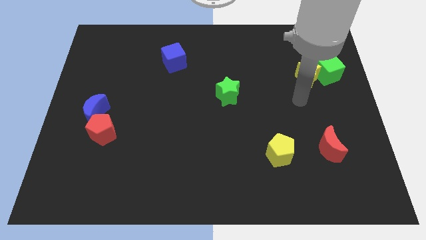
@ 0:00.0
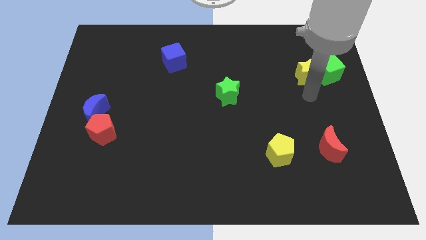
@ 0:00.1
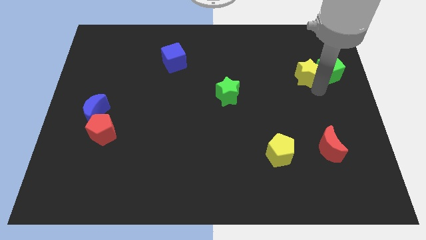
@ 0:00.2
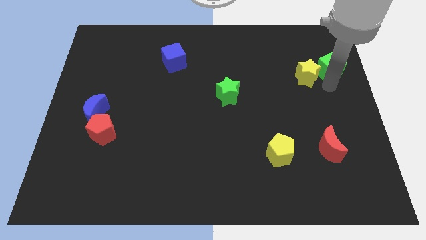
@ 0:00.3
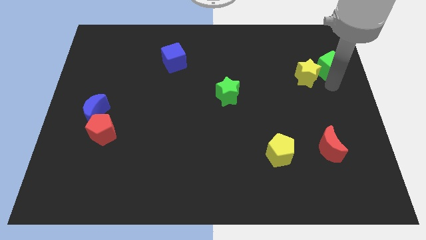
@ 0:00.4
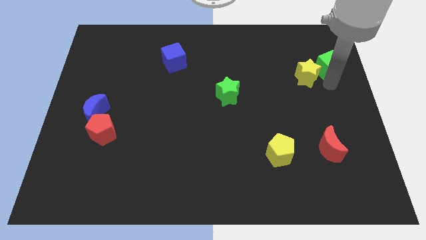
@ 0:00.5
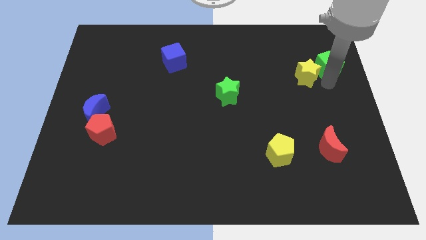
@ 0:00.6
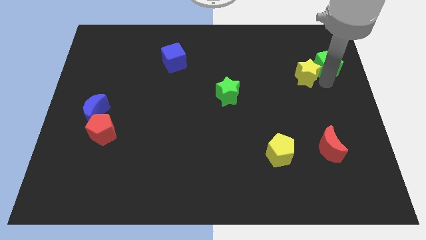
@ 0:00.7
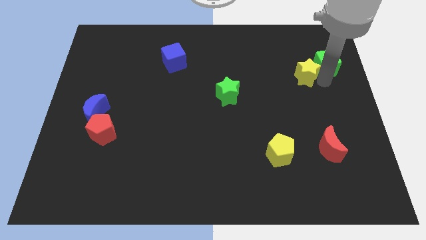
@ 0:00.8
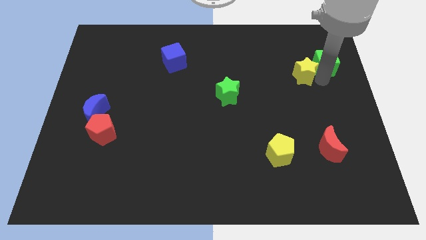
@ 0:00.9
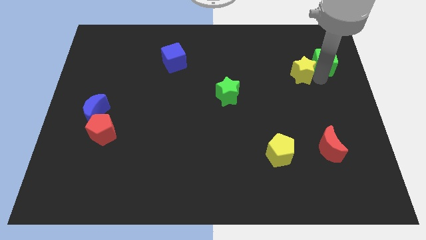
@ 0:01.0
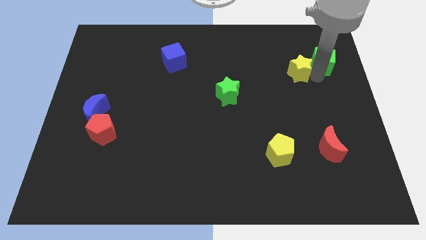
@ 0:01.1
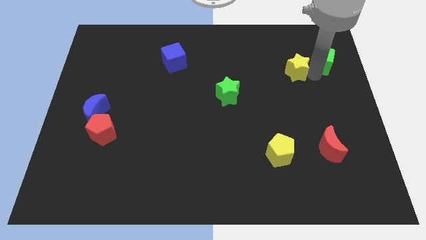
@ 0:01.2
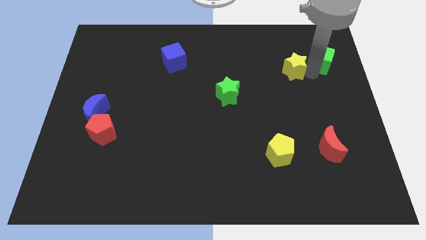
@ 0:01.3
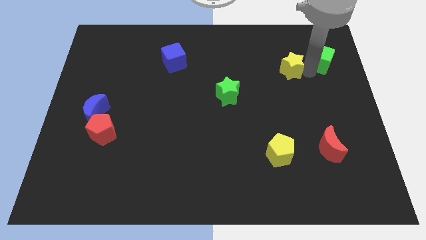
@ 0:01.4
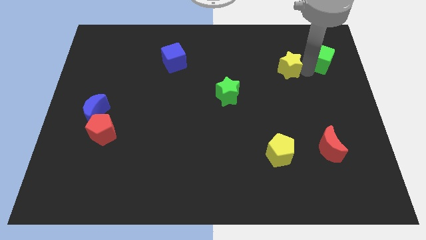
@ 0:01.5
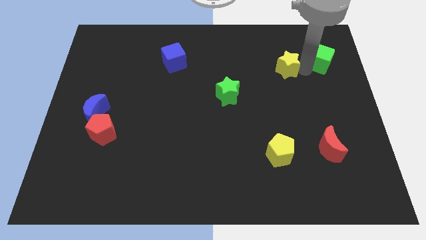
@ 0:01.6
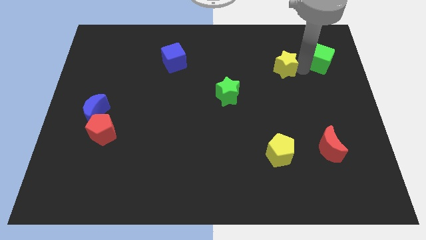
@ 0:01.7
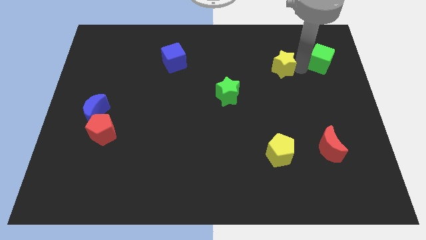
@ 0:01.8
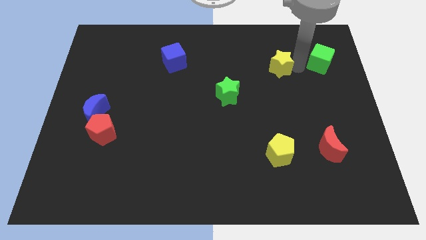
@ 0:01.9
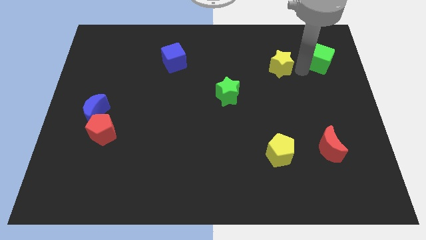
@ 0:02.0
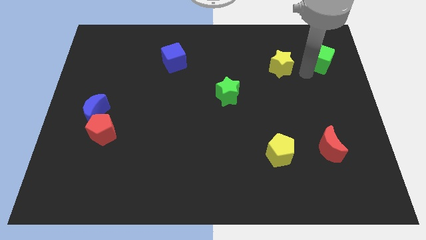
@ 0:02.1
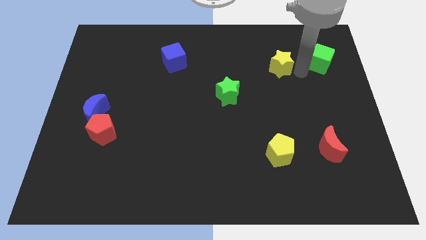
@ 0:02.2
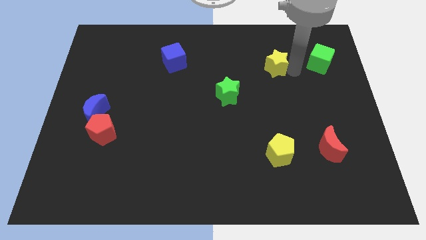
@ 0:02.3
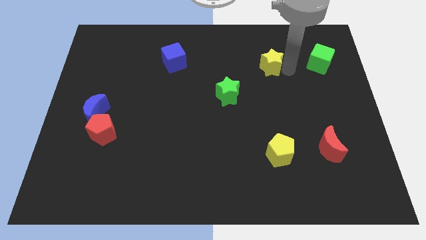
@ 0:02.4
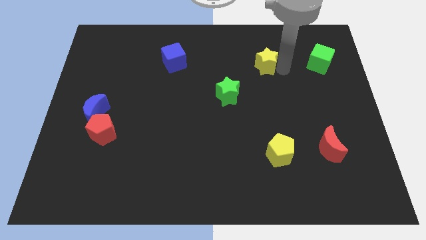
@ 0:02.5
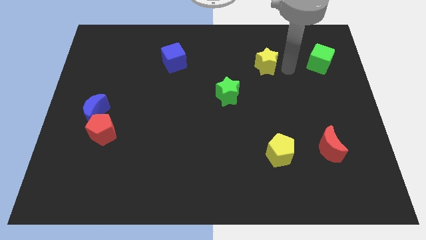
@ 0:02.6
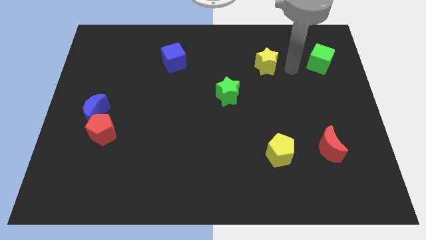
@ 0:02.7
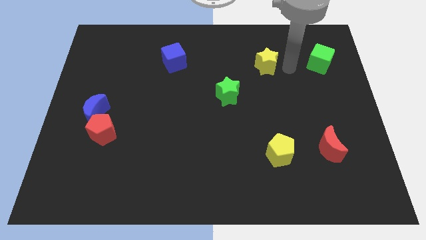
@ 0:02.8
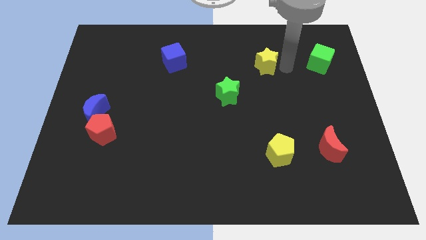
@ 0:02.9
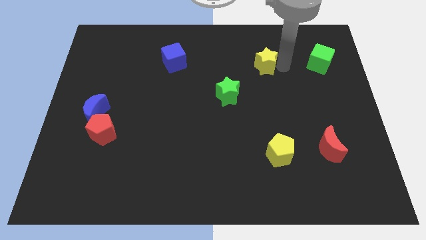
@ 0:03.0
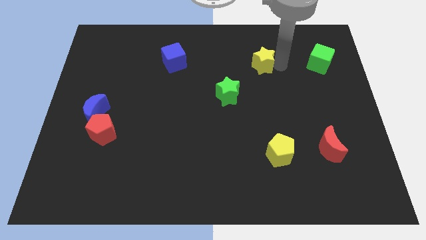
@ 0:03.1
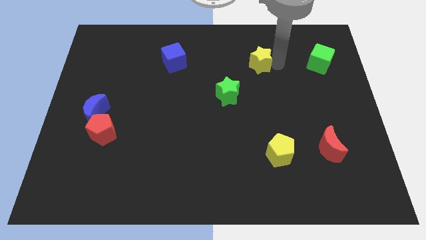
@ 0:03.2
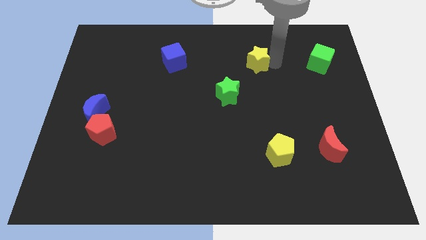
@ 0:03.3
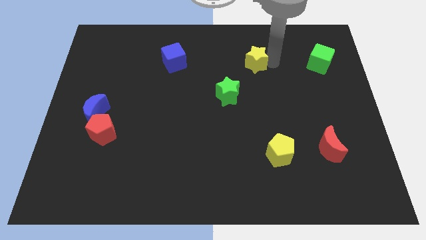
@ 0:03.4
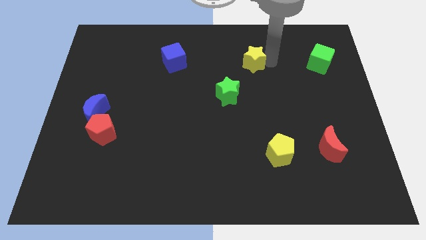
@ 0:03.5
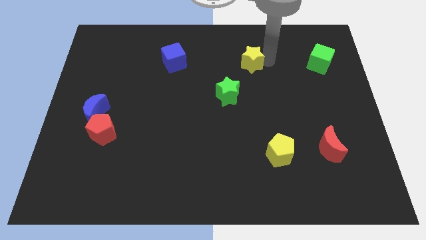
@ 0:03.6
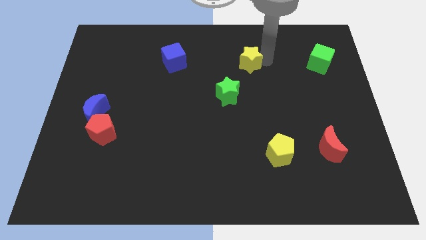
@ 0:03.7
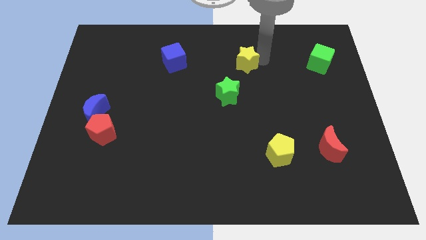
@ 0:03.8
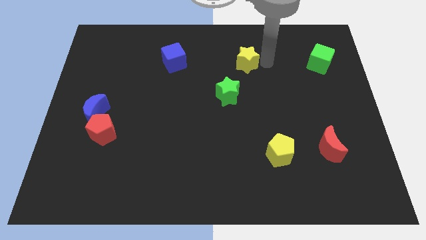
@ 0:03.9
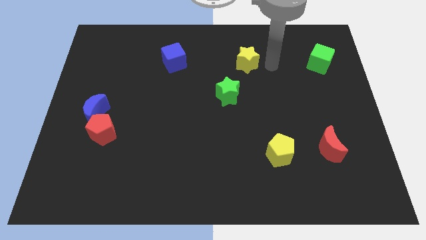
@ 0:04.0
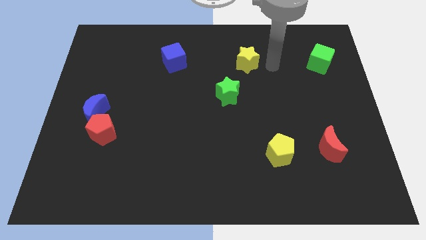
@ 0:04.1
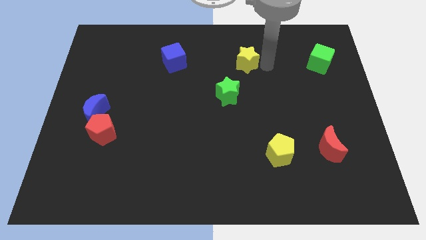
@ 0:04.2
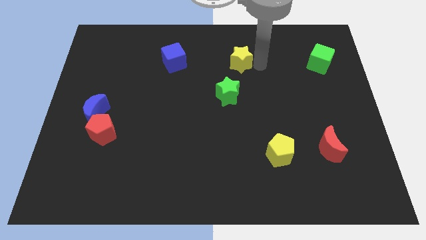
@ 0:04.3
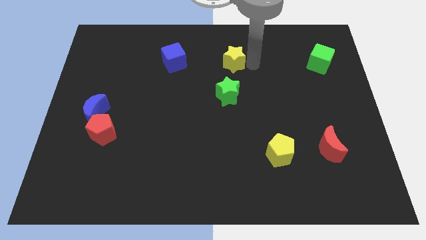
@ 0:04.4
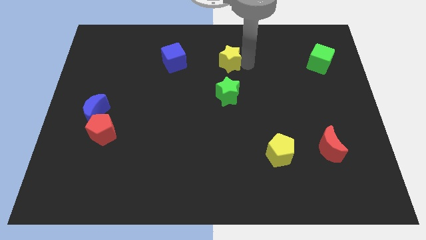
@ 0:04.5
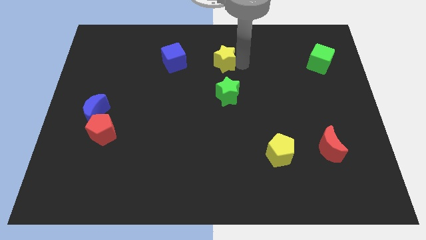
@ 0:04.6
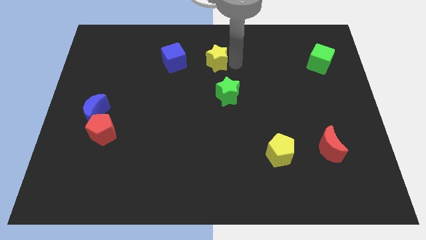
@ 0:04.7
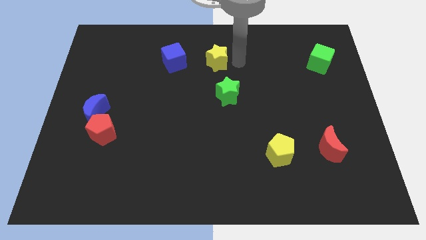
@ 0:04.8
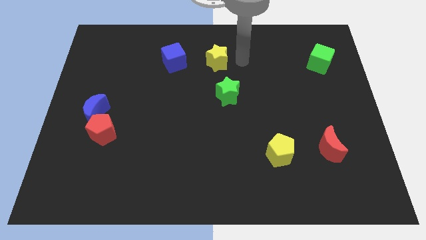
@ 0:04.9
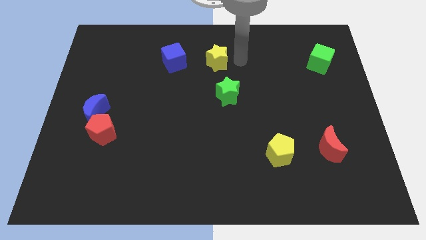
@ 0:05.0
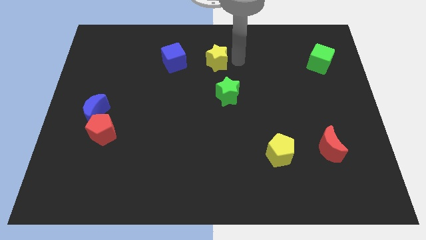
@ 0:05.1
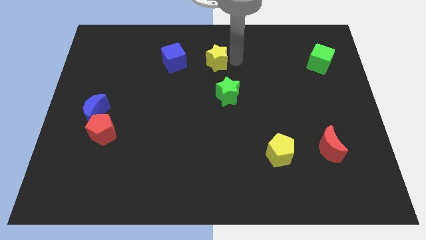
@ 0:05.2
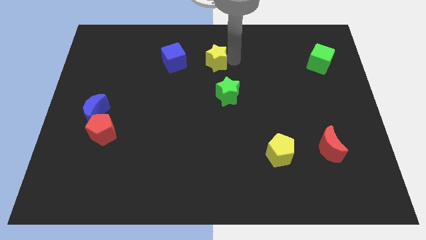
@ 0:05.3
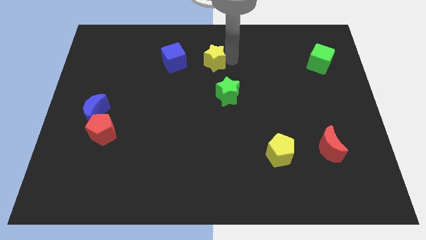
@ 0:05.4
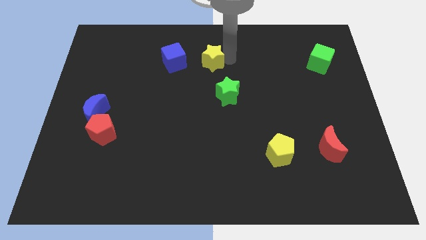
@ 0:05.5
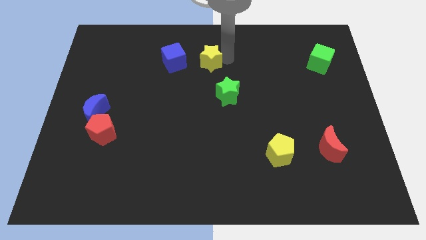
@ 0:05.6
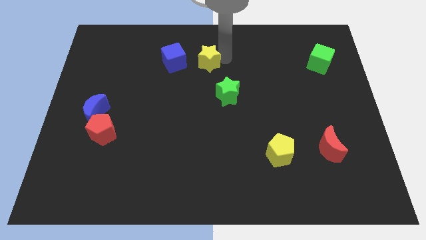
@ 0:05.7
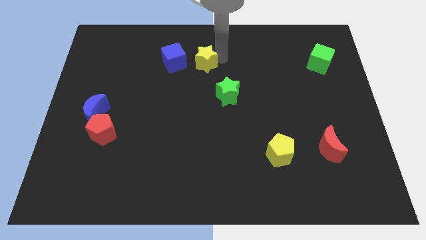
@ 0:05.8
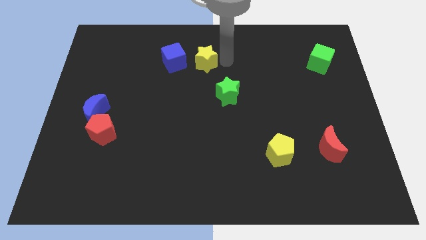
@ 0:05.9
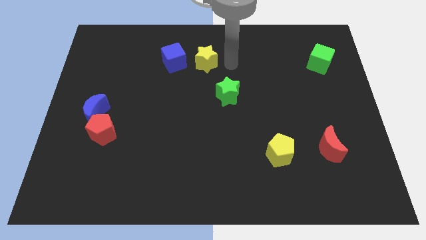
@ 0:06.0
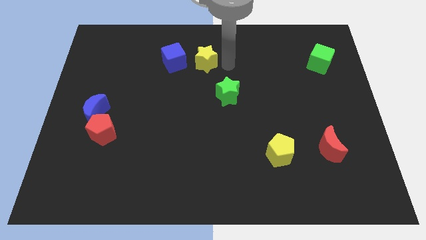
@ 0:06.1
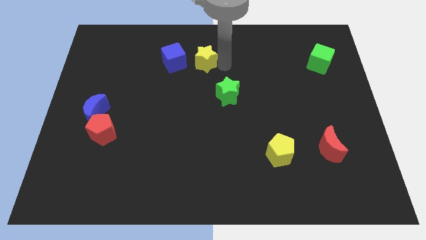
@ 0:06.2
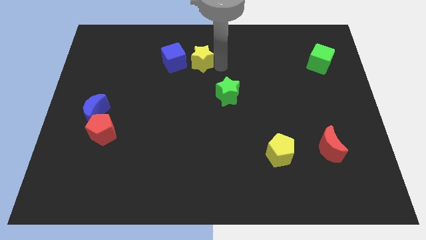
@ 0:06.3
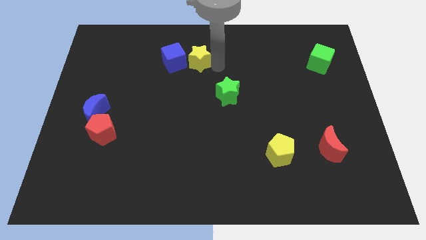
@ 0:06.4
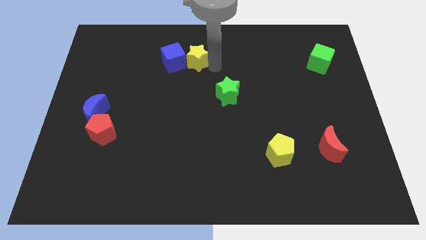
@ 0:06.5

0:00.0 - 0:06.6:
put the yellow star to the blue cube

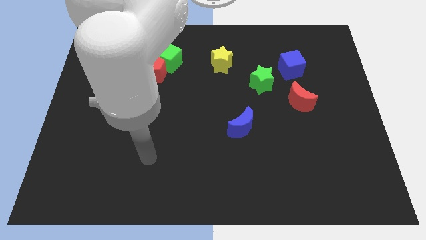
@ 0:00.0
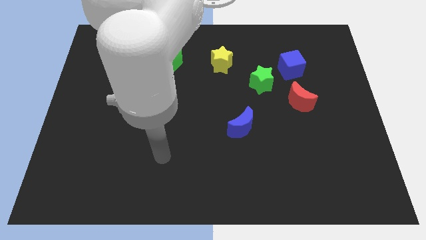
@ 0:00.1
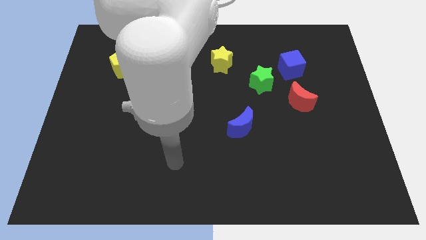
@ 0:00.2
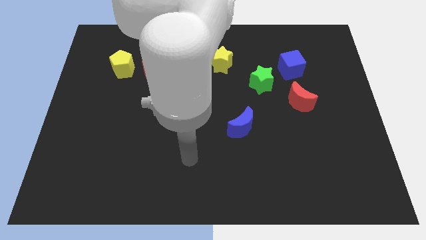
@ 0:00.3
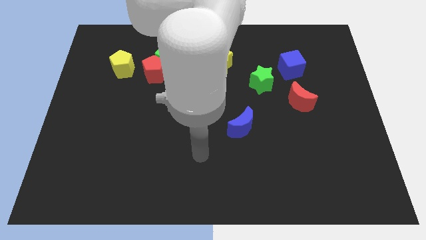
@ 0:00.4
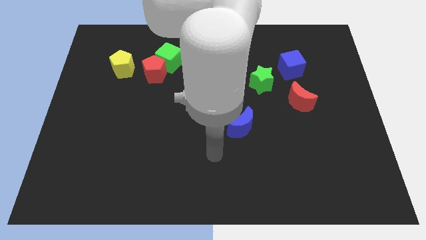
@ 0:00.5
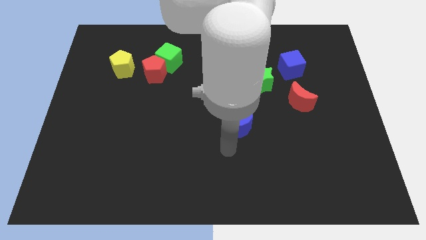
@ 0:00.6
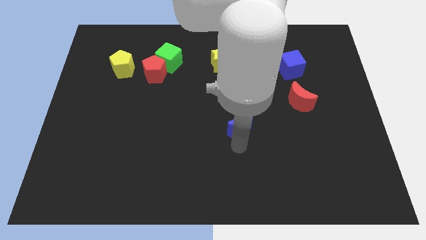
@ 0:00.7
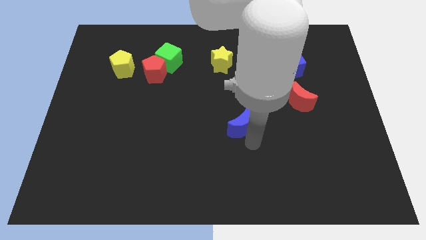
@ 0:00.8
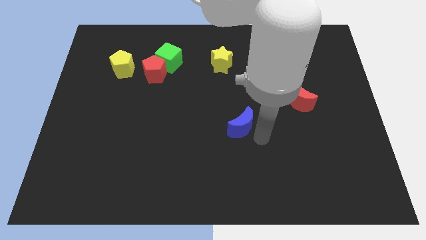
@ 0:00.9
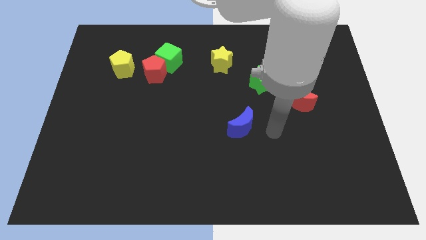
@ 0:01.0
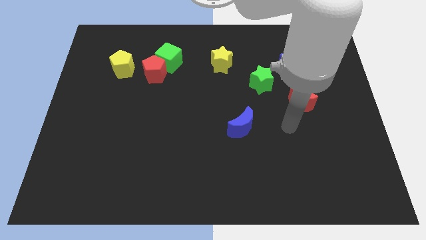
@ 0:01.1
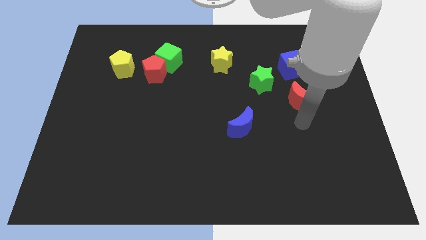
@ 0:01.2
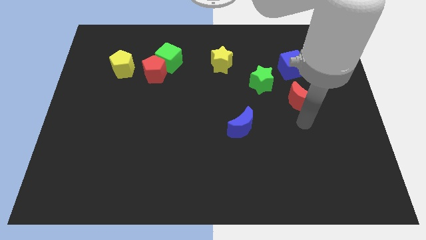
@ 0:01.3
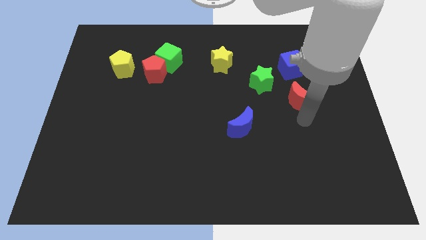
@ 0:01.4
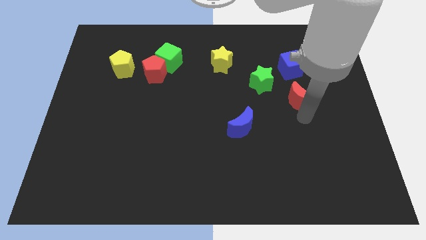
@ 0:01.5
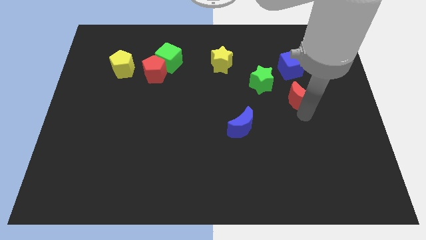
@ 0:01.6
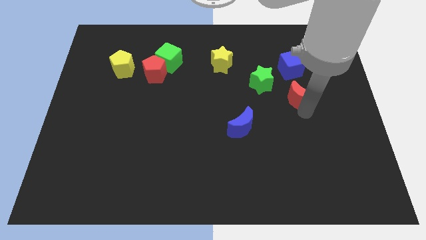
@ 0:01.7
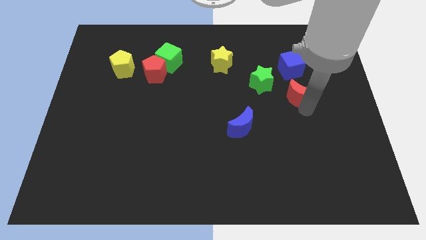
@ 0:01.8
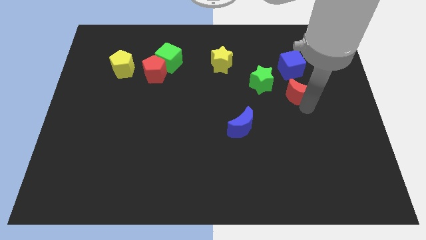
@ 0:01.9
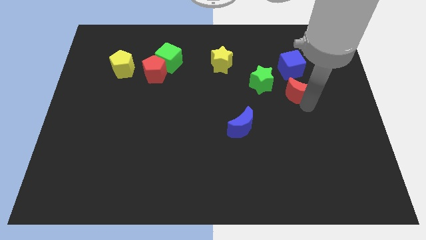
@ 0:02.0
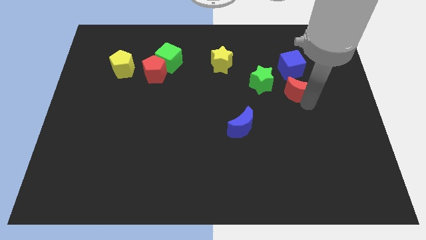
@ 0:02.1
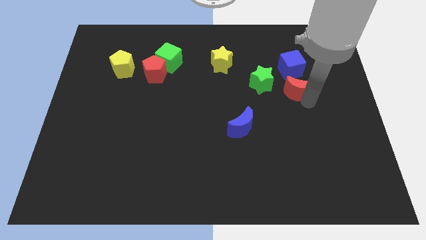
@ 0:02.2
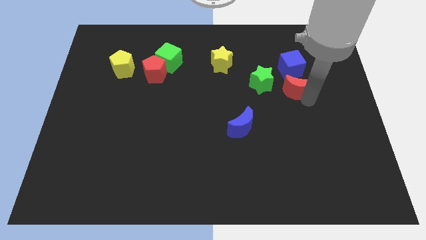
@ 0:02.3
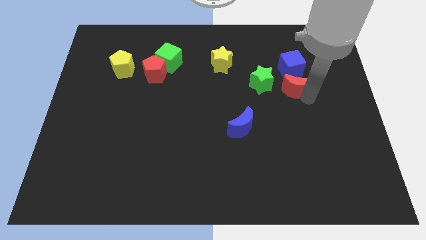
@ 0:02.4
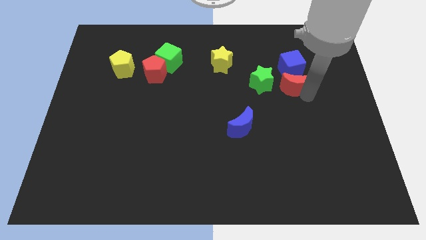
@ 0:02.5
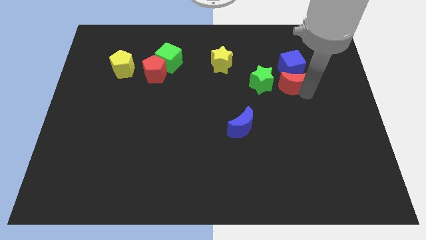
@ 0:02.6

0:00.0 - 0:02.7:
put the red moon to the blue cube
